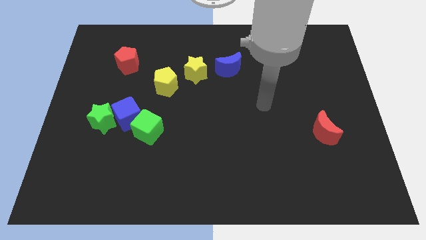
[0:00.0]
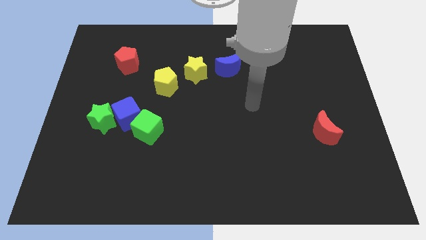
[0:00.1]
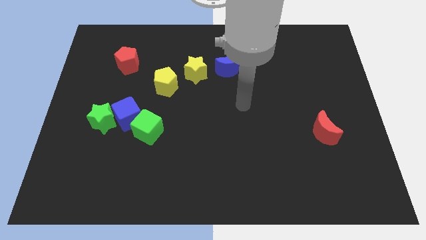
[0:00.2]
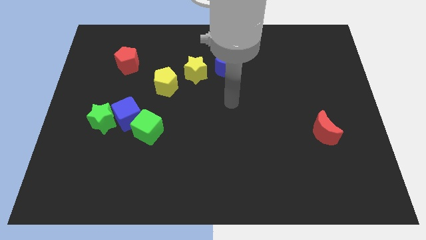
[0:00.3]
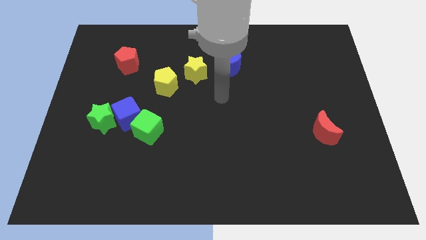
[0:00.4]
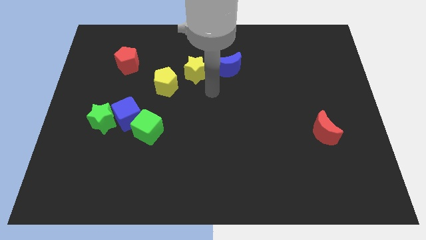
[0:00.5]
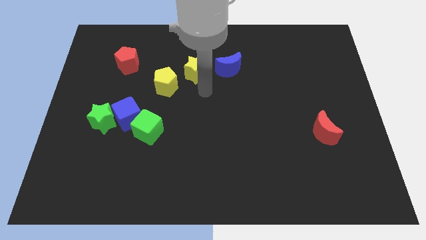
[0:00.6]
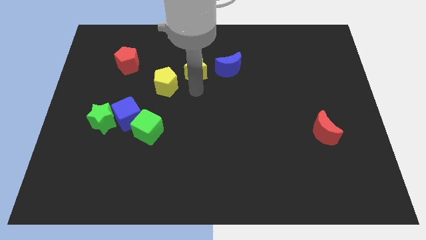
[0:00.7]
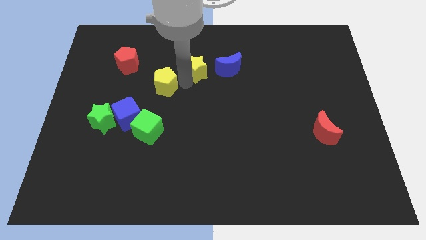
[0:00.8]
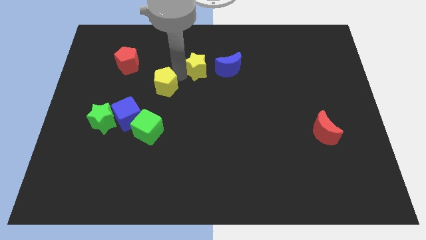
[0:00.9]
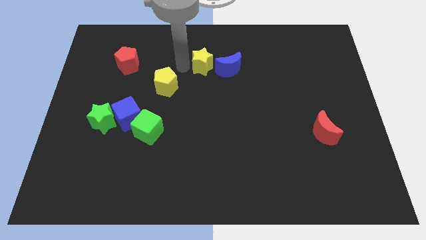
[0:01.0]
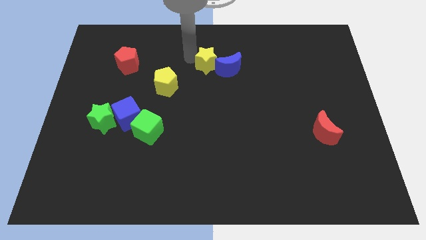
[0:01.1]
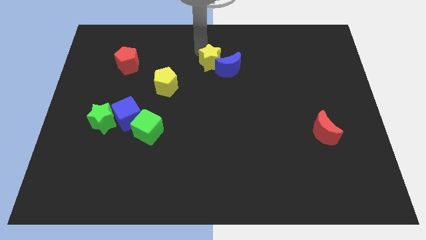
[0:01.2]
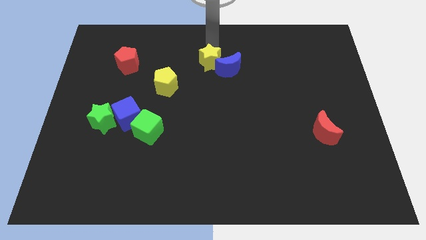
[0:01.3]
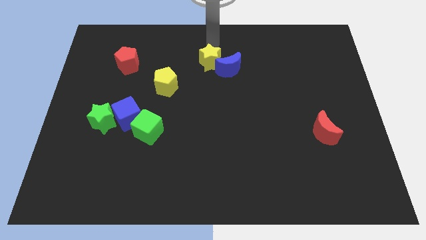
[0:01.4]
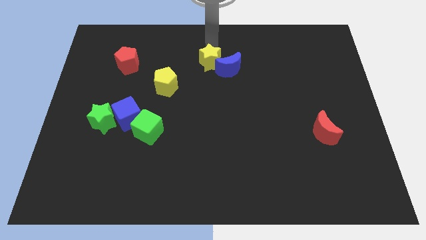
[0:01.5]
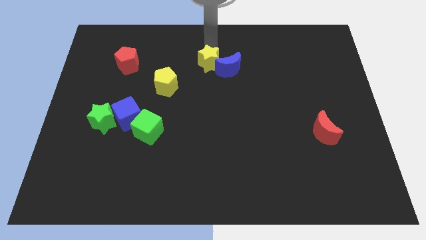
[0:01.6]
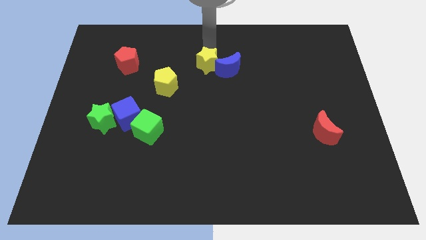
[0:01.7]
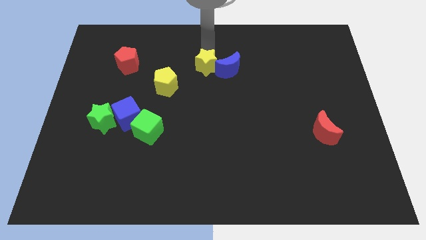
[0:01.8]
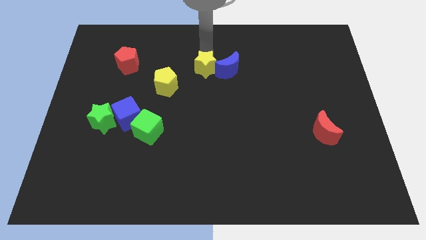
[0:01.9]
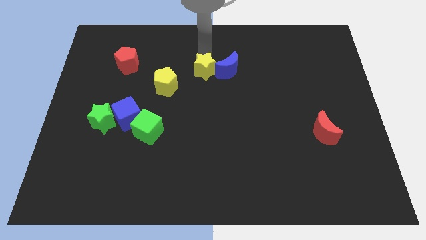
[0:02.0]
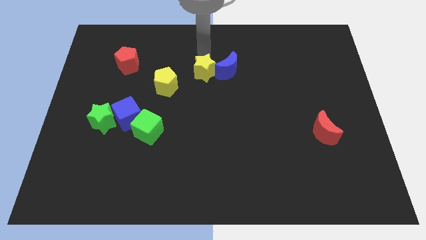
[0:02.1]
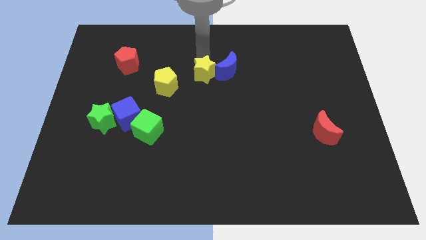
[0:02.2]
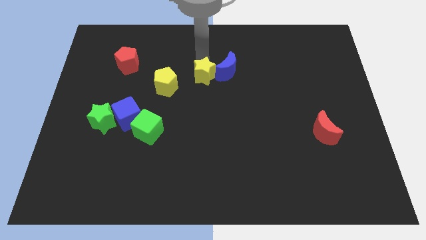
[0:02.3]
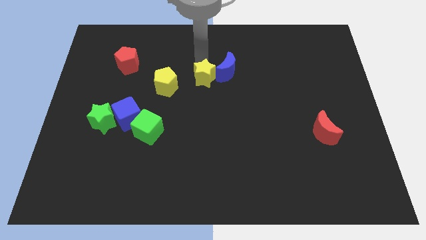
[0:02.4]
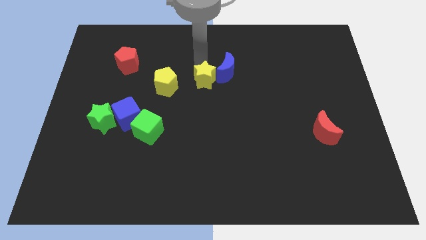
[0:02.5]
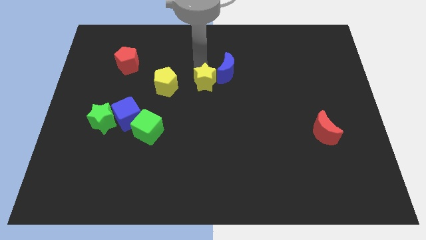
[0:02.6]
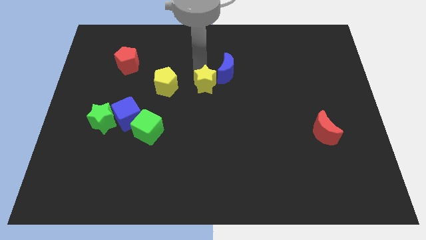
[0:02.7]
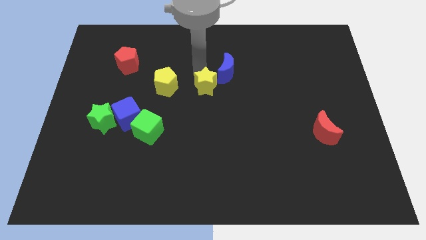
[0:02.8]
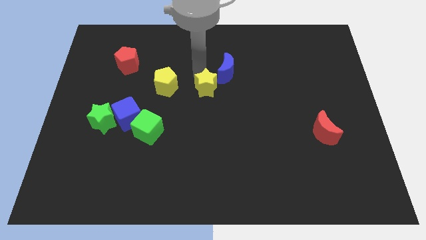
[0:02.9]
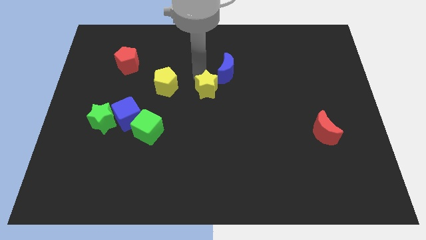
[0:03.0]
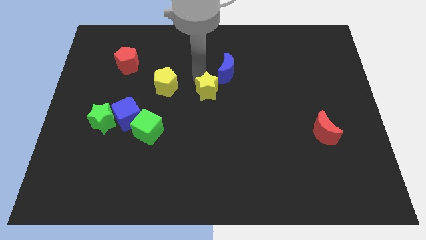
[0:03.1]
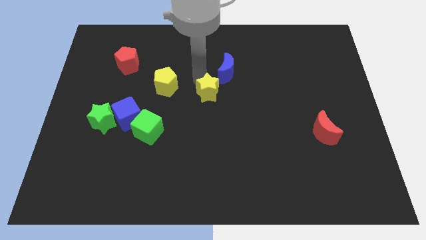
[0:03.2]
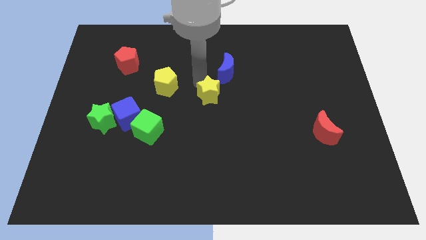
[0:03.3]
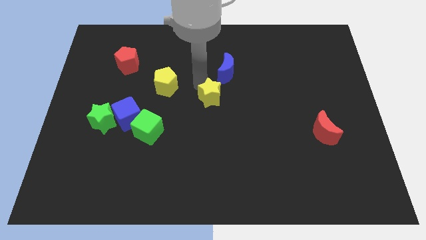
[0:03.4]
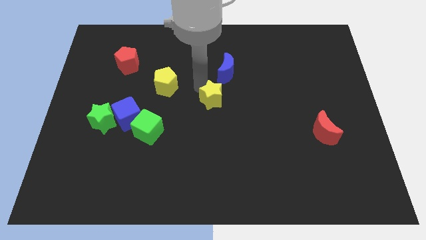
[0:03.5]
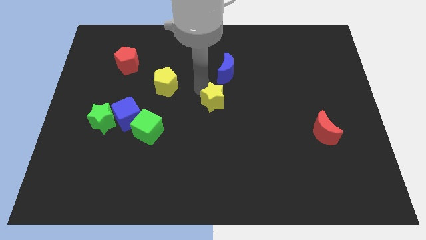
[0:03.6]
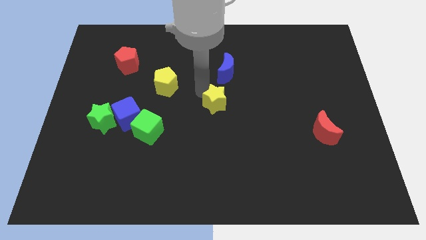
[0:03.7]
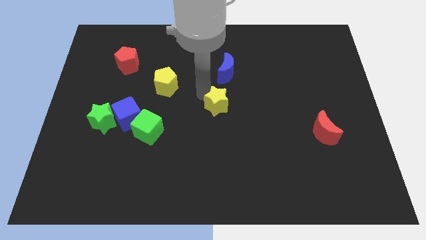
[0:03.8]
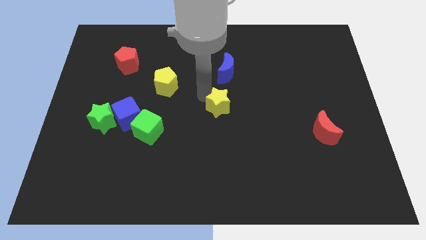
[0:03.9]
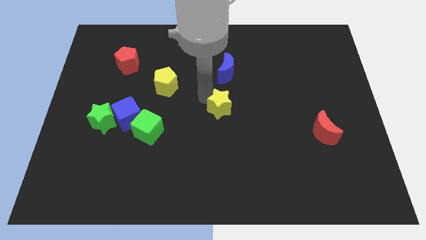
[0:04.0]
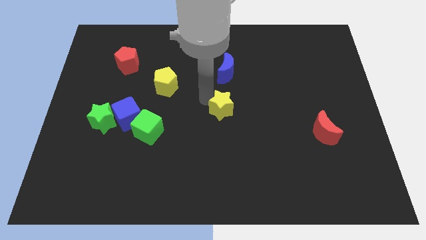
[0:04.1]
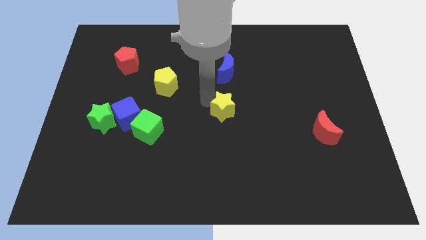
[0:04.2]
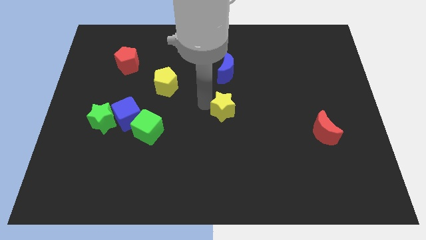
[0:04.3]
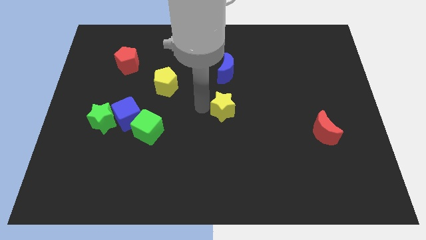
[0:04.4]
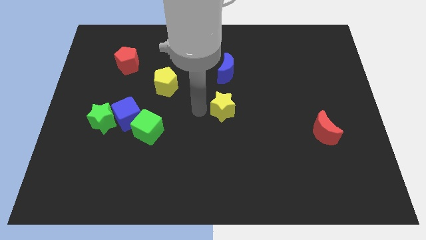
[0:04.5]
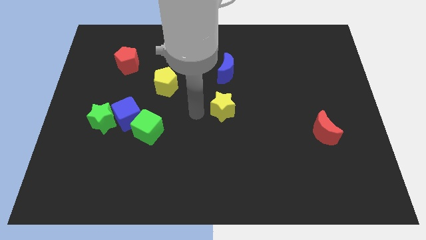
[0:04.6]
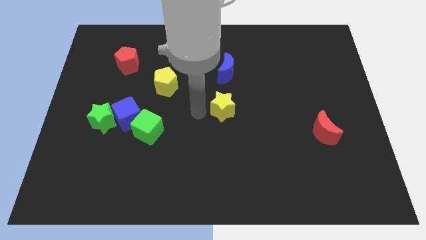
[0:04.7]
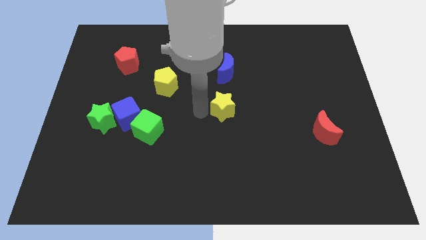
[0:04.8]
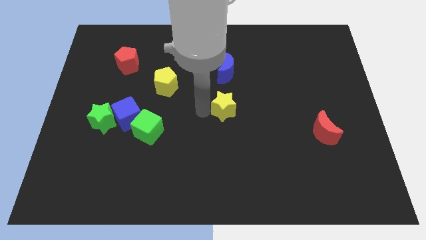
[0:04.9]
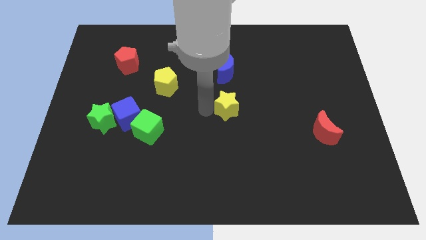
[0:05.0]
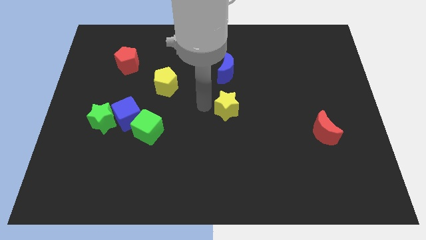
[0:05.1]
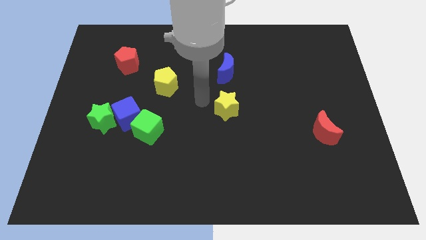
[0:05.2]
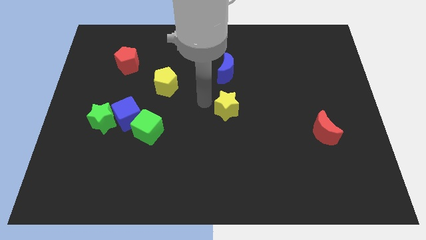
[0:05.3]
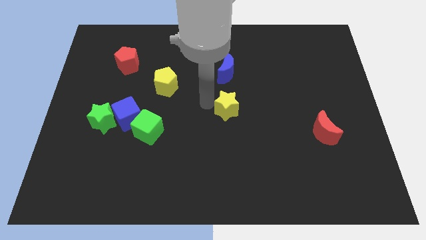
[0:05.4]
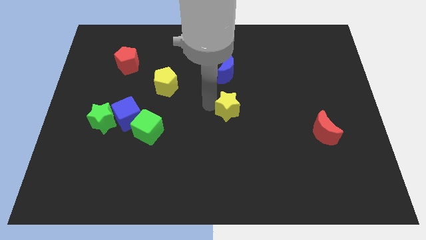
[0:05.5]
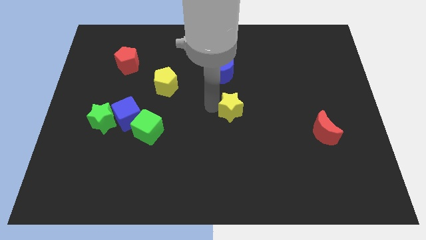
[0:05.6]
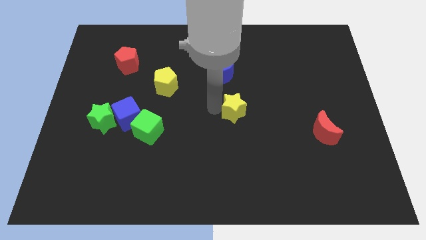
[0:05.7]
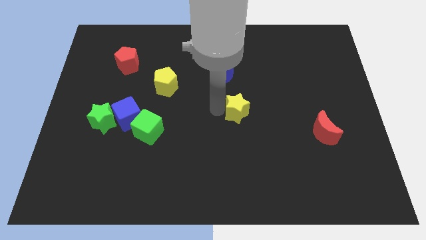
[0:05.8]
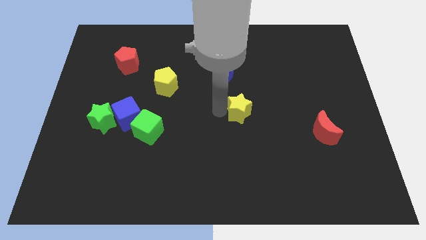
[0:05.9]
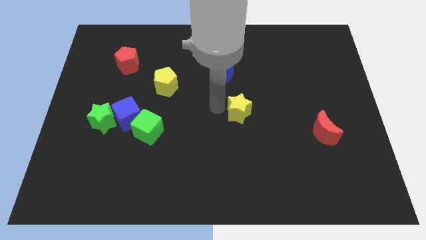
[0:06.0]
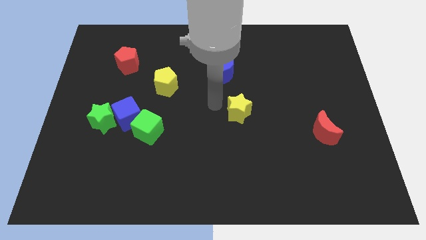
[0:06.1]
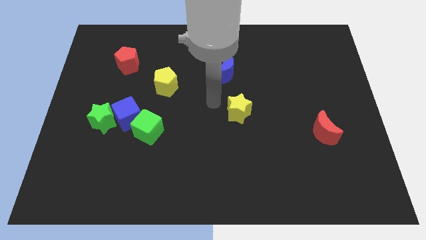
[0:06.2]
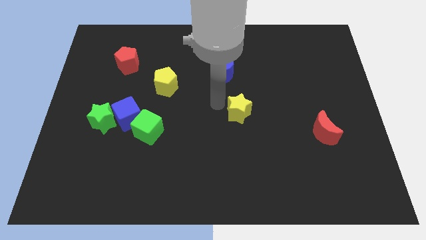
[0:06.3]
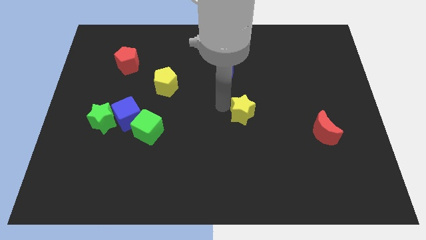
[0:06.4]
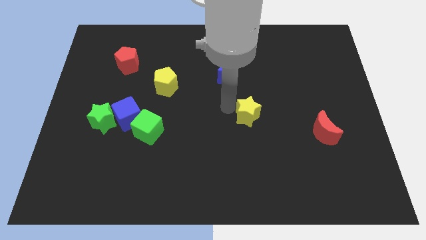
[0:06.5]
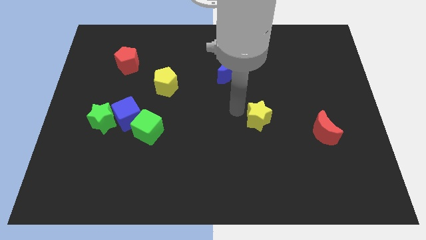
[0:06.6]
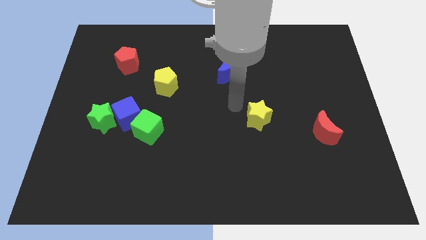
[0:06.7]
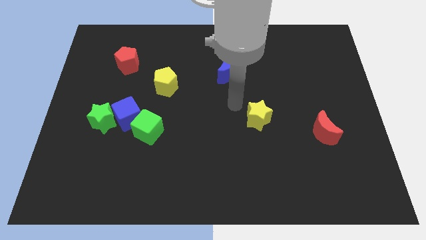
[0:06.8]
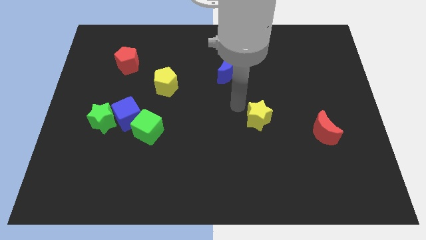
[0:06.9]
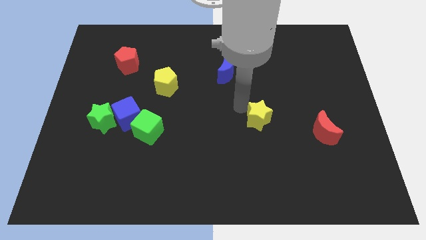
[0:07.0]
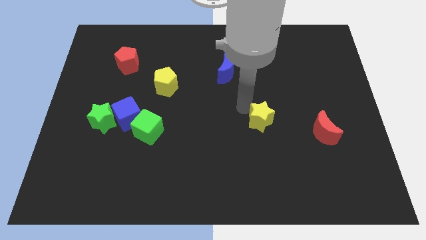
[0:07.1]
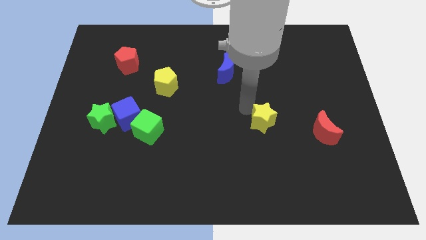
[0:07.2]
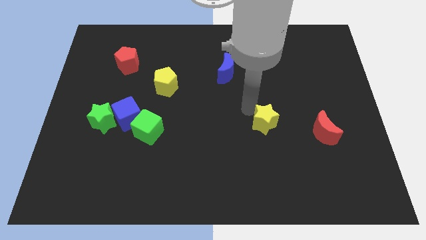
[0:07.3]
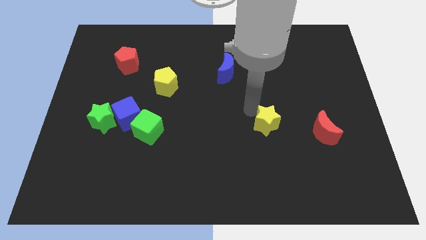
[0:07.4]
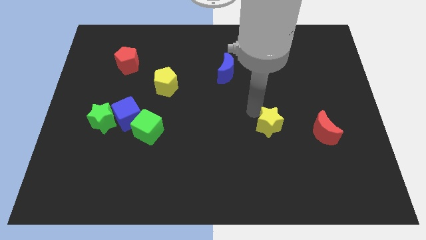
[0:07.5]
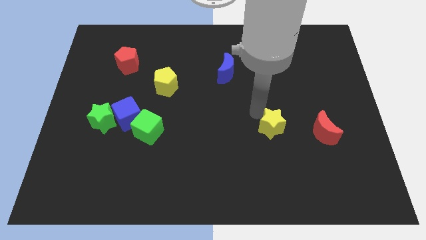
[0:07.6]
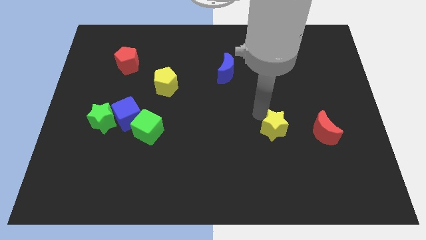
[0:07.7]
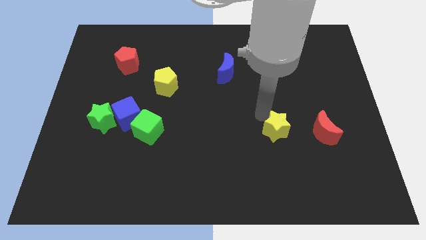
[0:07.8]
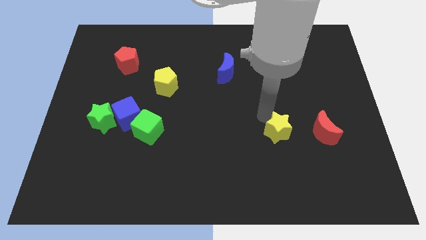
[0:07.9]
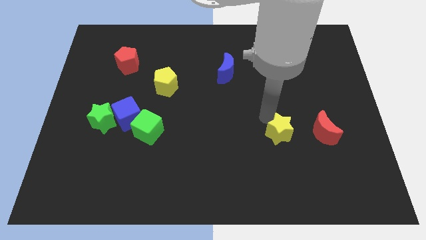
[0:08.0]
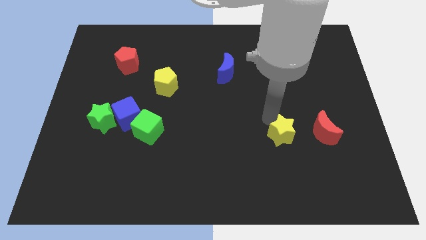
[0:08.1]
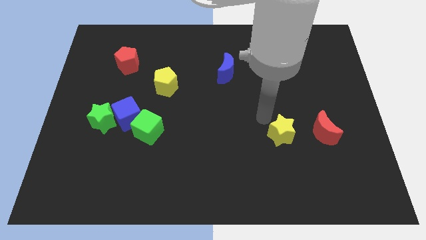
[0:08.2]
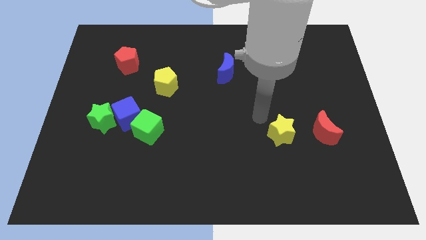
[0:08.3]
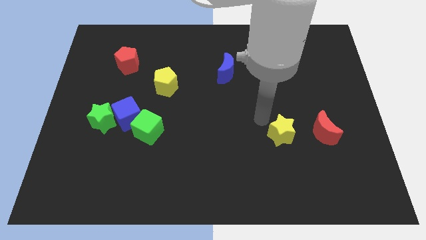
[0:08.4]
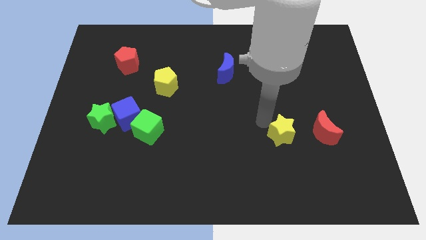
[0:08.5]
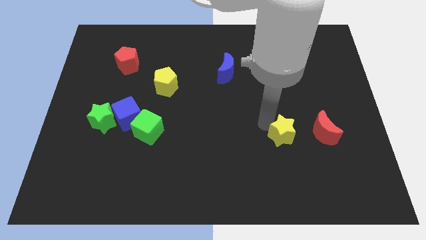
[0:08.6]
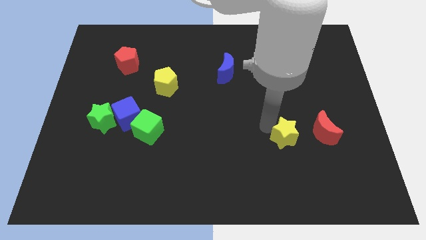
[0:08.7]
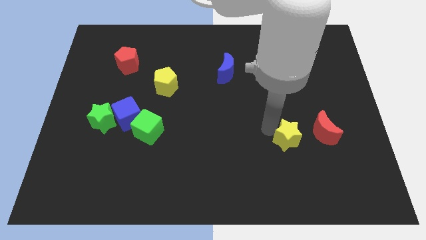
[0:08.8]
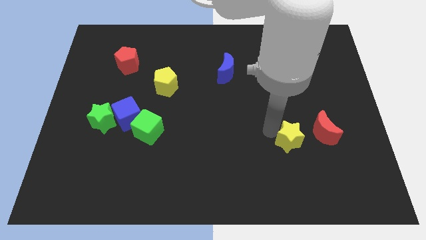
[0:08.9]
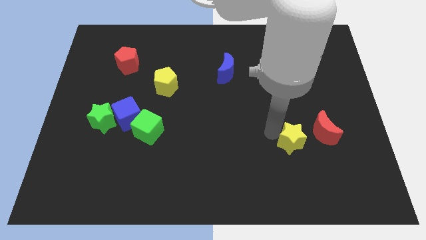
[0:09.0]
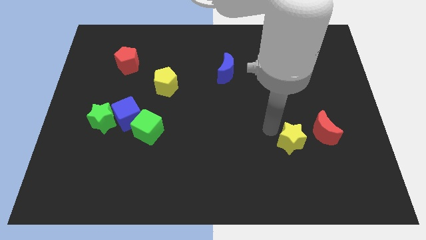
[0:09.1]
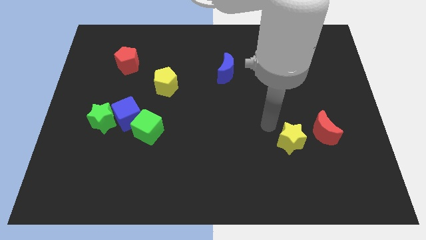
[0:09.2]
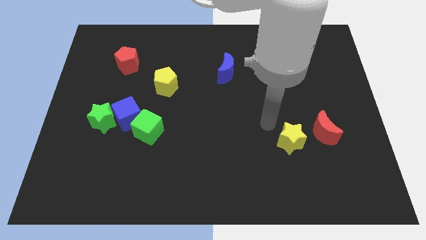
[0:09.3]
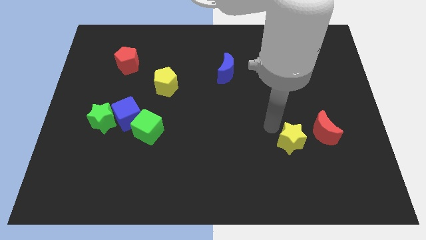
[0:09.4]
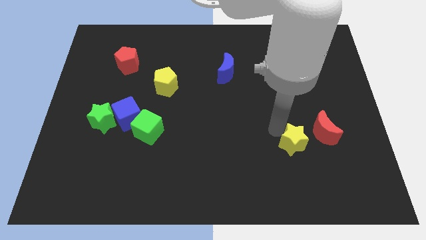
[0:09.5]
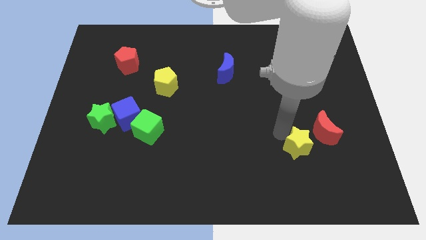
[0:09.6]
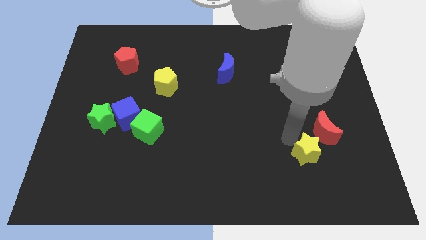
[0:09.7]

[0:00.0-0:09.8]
put the yellow star to the bottom of the red moon
